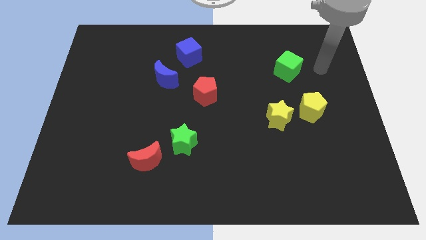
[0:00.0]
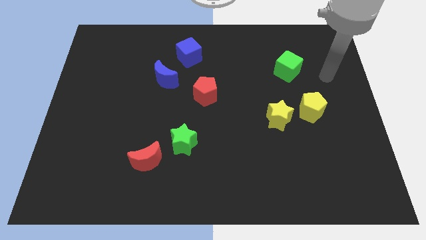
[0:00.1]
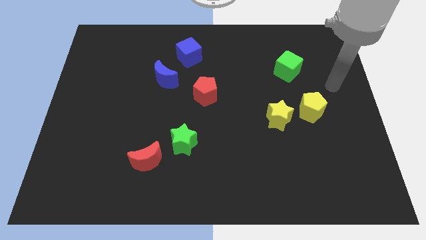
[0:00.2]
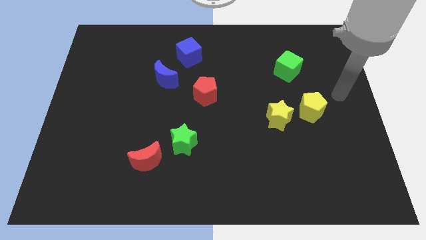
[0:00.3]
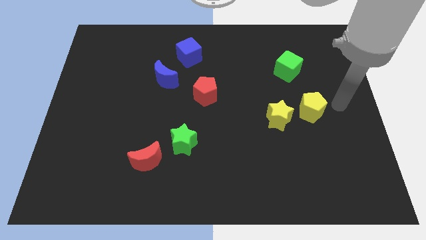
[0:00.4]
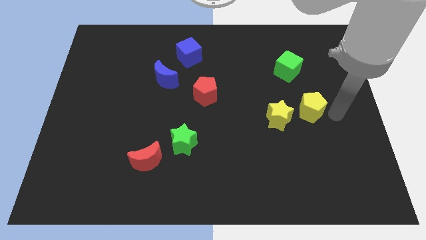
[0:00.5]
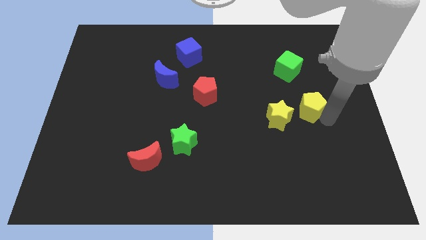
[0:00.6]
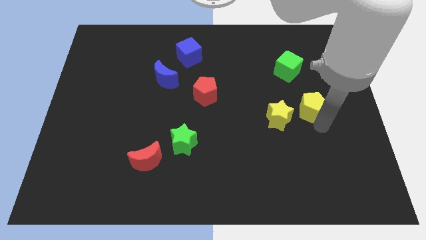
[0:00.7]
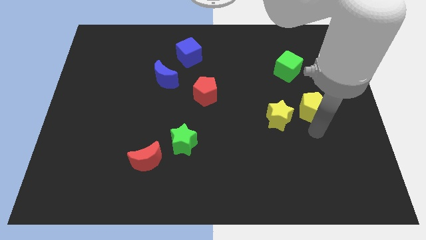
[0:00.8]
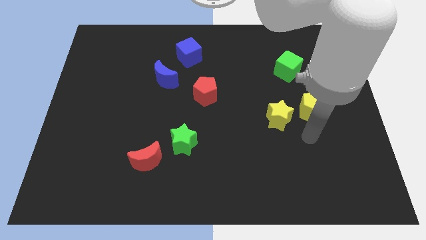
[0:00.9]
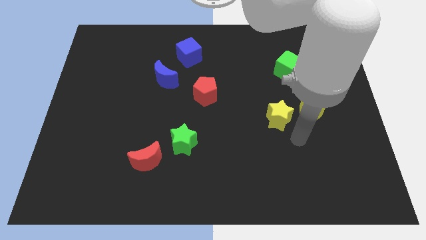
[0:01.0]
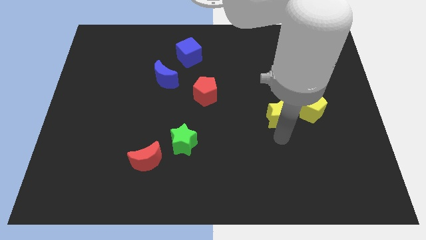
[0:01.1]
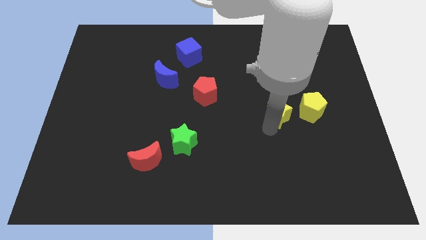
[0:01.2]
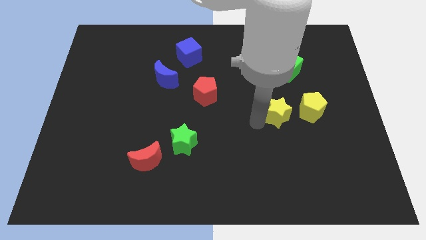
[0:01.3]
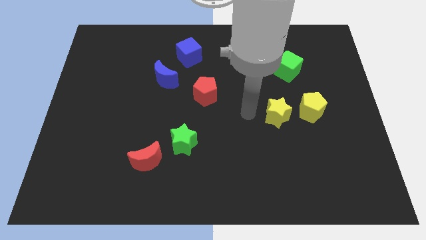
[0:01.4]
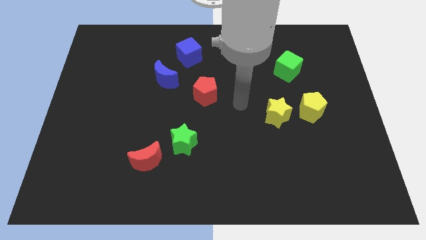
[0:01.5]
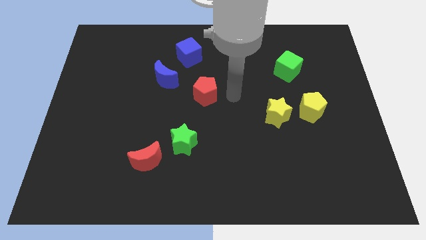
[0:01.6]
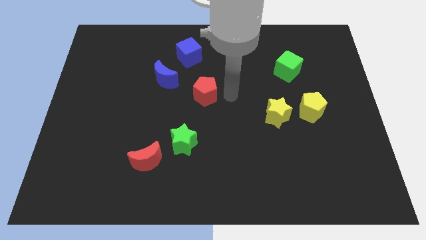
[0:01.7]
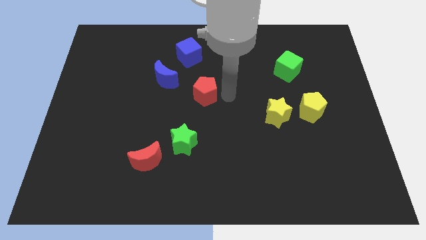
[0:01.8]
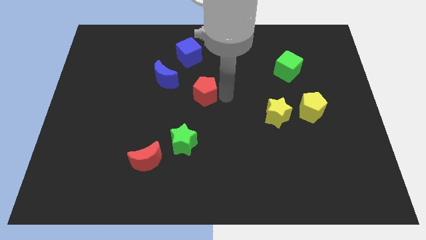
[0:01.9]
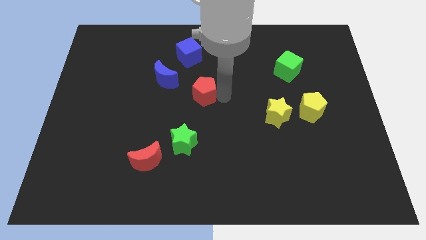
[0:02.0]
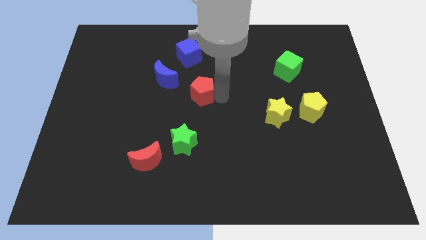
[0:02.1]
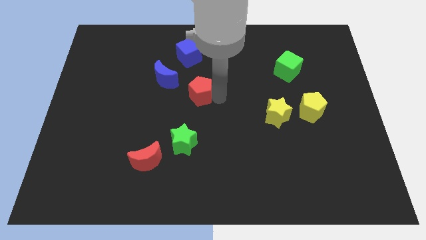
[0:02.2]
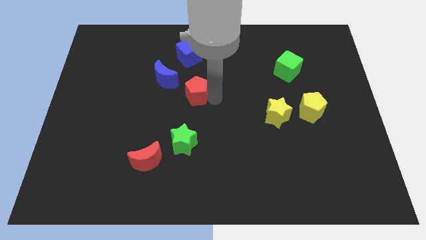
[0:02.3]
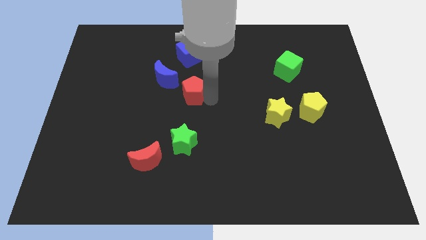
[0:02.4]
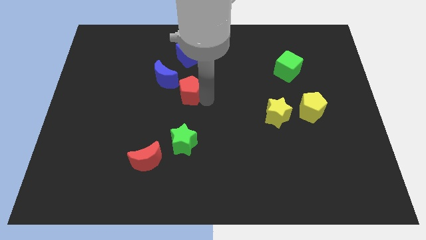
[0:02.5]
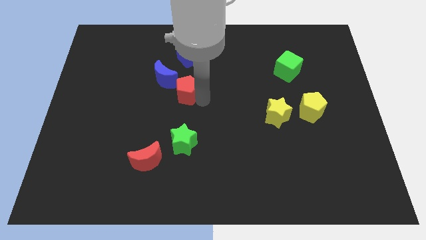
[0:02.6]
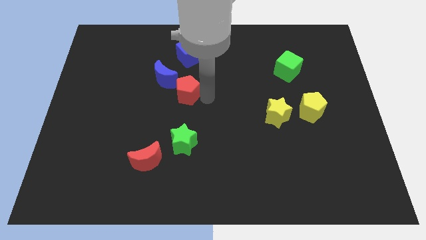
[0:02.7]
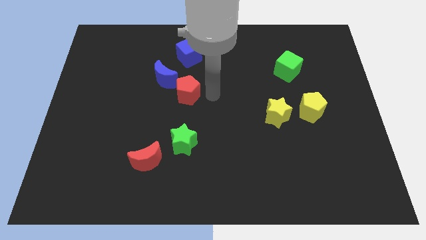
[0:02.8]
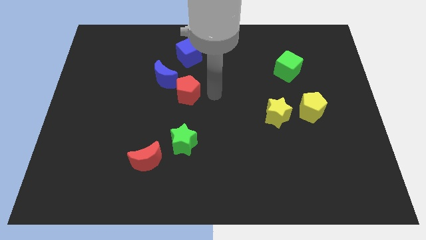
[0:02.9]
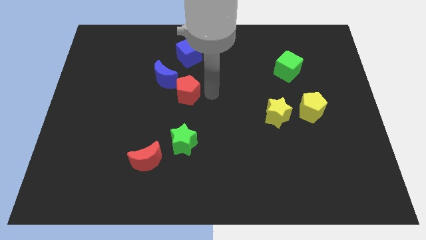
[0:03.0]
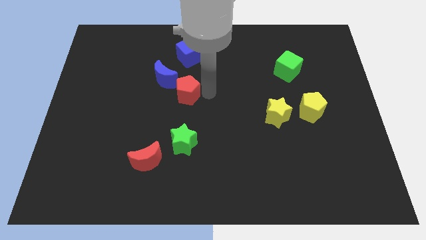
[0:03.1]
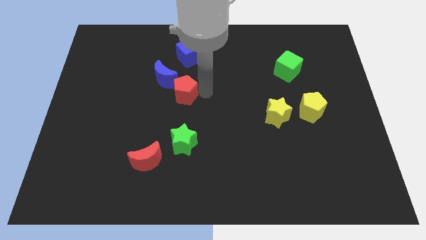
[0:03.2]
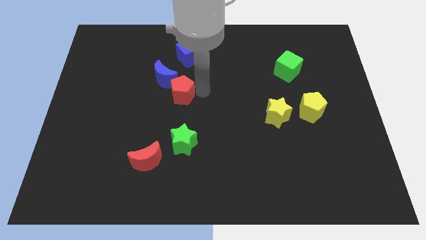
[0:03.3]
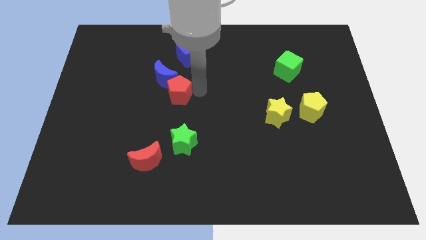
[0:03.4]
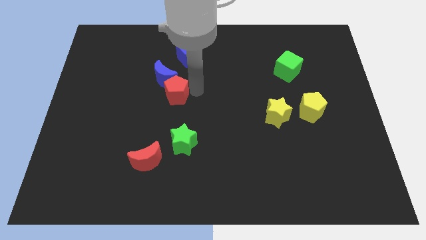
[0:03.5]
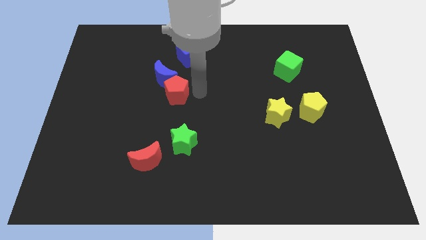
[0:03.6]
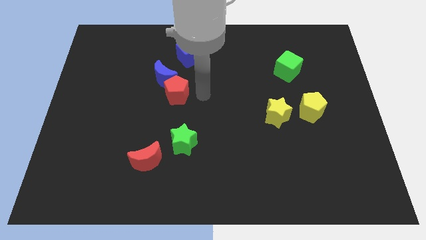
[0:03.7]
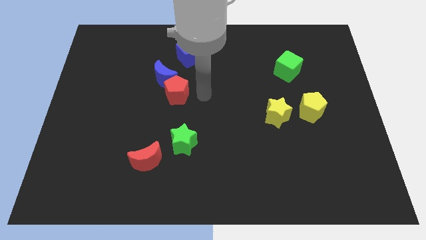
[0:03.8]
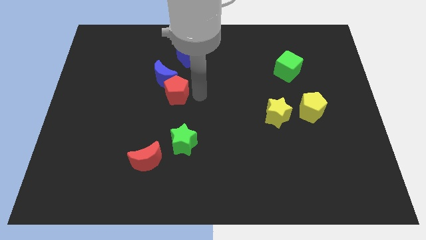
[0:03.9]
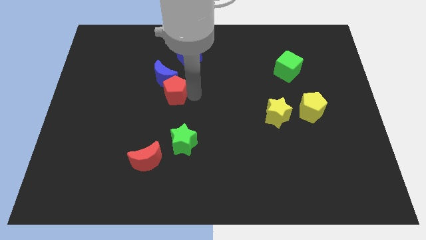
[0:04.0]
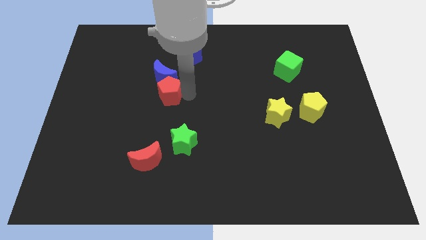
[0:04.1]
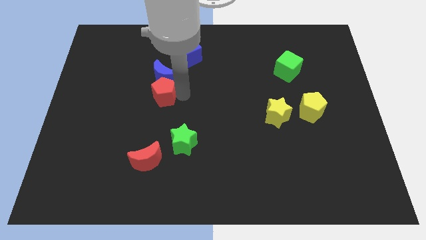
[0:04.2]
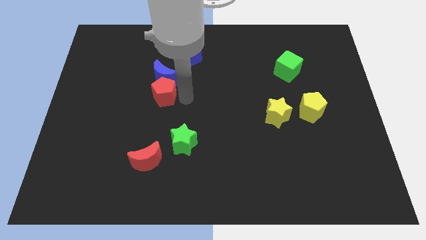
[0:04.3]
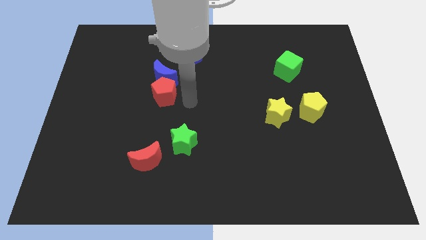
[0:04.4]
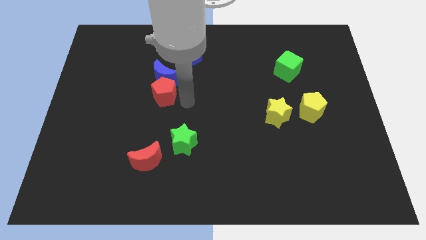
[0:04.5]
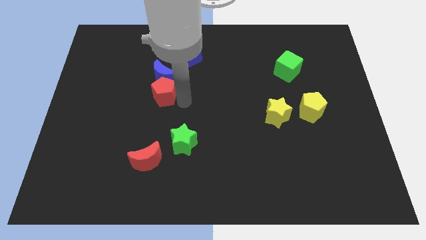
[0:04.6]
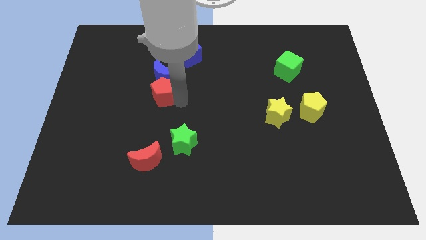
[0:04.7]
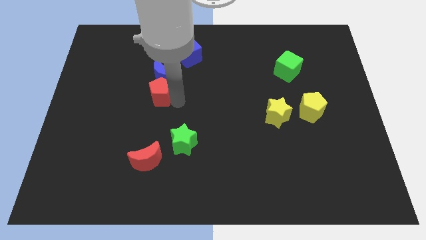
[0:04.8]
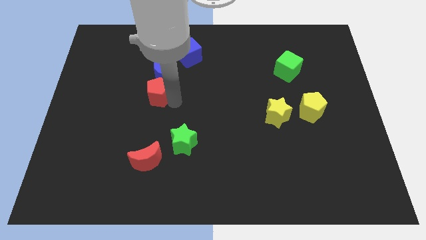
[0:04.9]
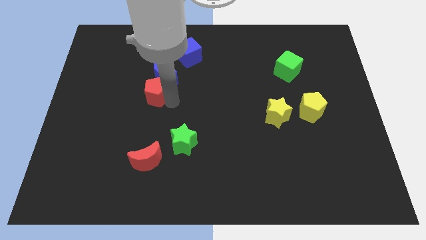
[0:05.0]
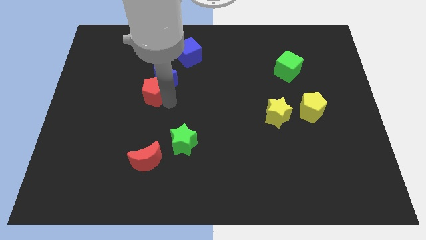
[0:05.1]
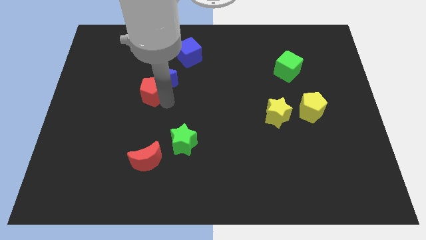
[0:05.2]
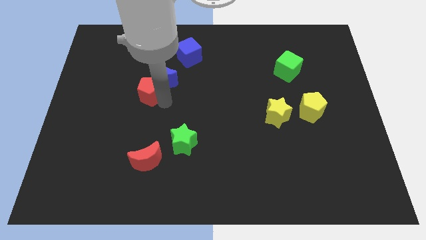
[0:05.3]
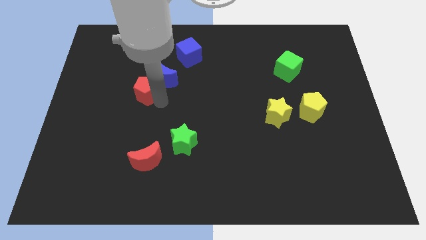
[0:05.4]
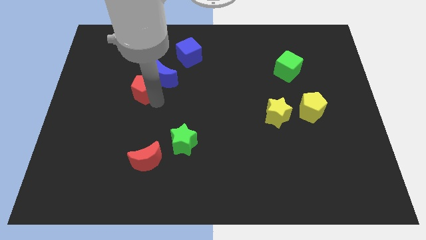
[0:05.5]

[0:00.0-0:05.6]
put the red pentagon to the left side of the blue moon

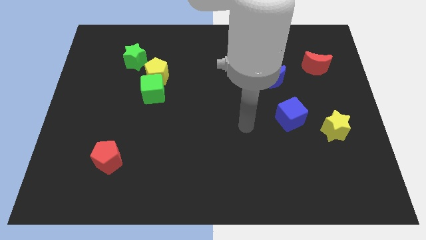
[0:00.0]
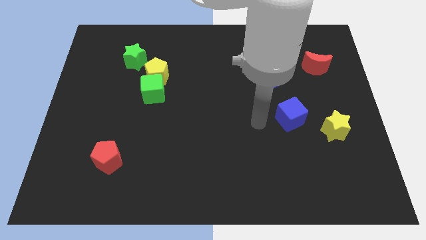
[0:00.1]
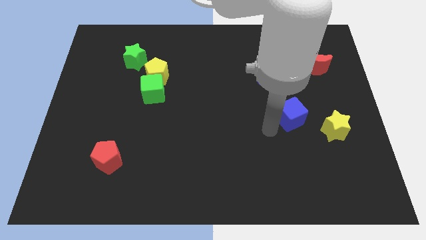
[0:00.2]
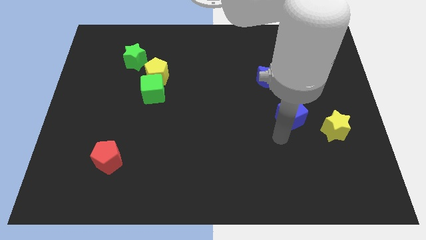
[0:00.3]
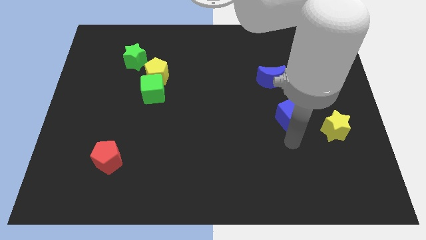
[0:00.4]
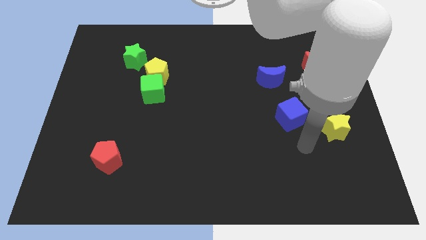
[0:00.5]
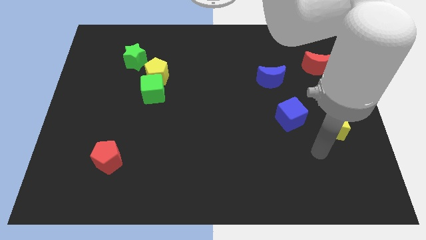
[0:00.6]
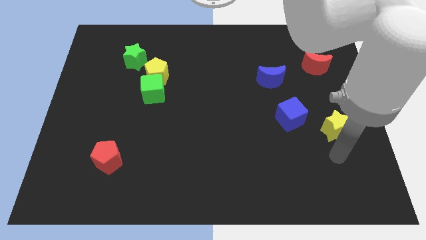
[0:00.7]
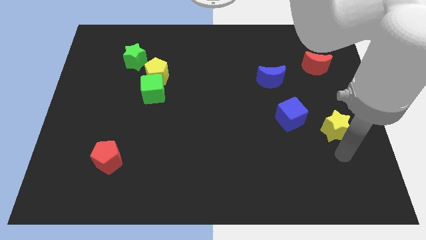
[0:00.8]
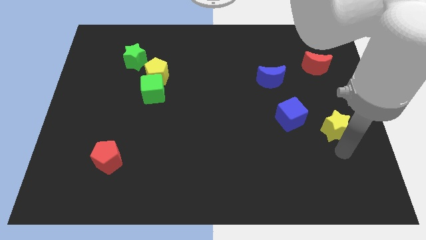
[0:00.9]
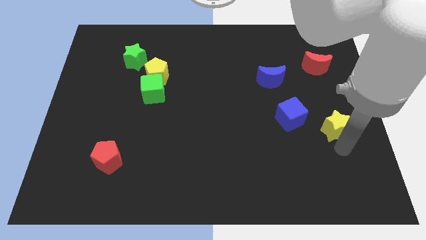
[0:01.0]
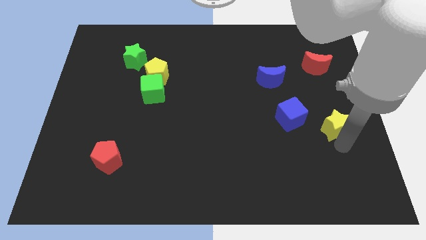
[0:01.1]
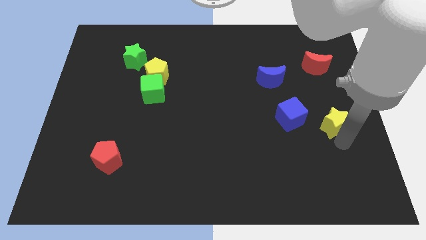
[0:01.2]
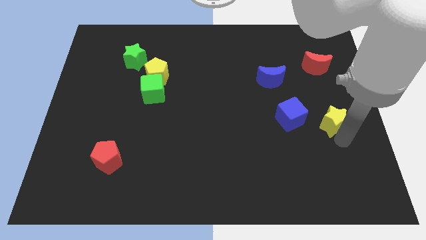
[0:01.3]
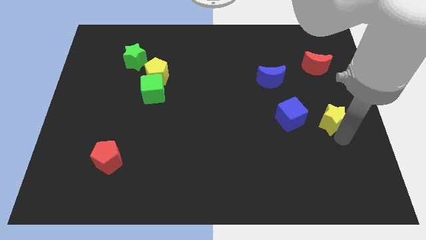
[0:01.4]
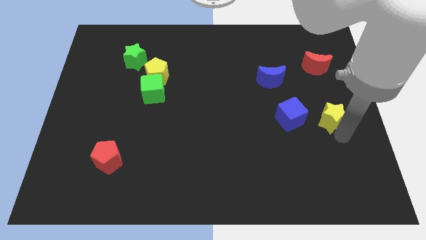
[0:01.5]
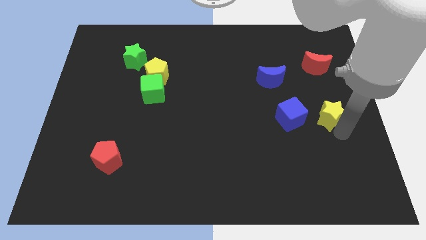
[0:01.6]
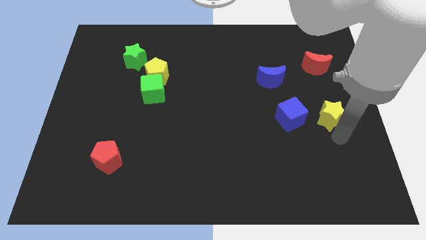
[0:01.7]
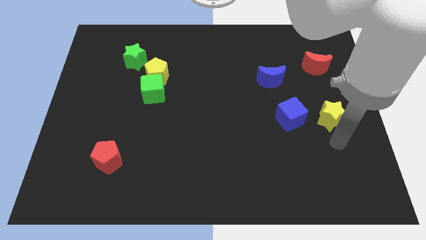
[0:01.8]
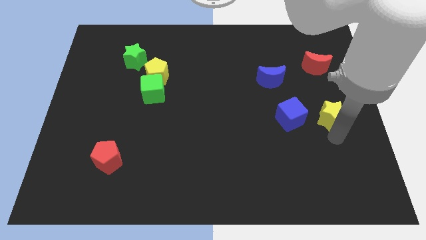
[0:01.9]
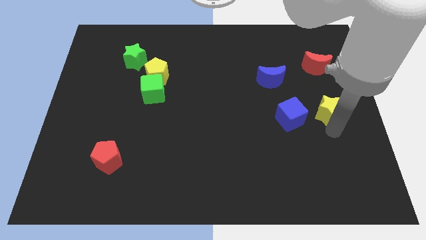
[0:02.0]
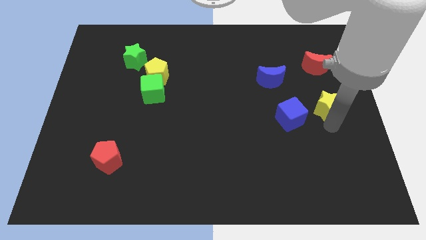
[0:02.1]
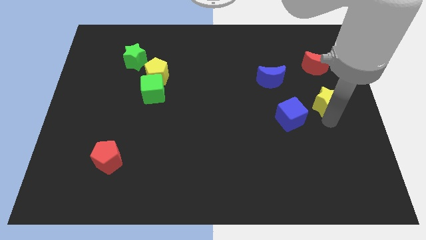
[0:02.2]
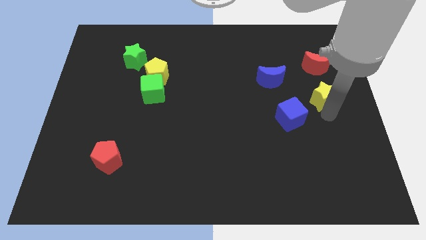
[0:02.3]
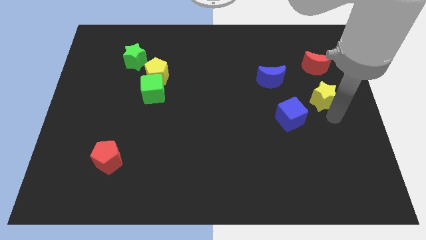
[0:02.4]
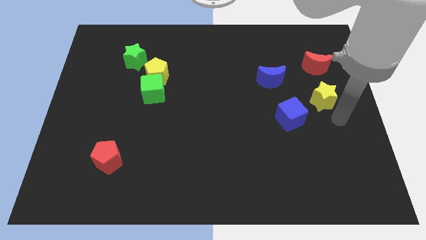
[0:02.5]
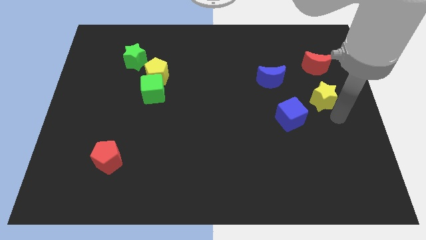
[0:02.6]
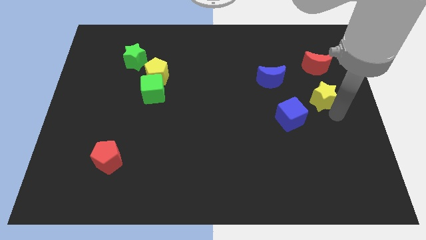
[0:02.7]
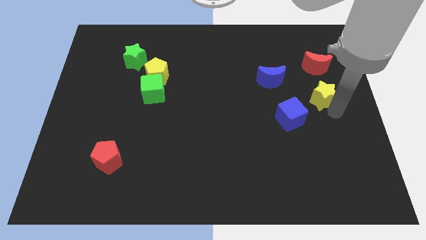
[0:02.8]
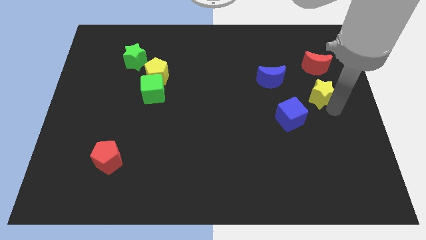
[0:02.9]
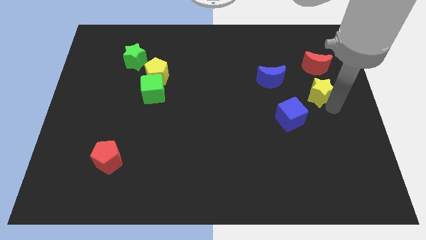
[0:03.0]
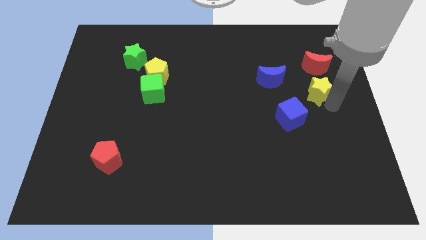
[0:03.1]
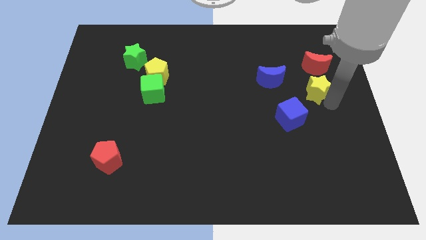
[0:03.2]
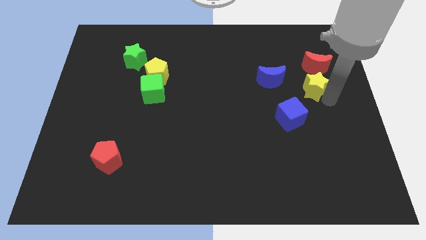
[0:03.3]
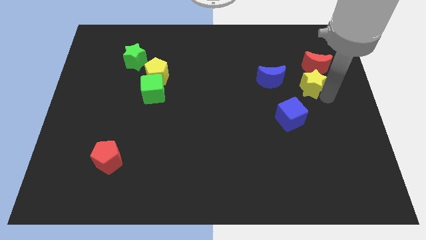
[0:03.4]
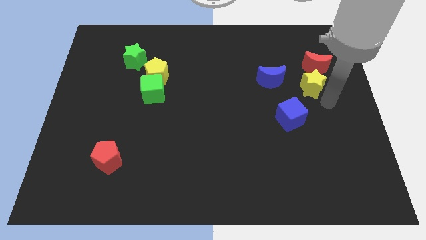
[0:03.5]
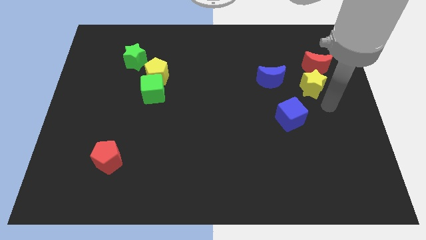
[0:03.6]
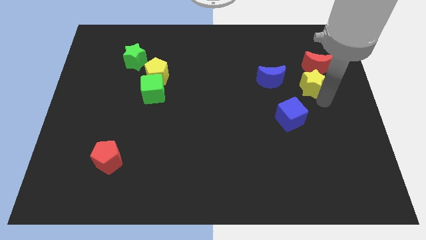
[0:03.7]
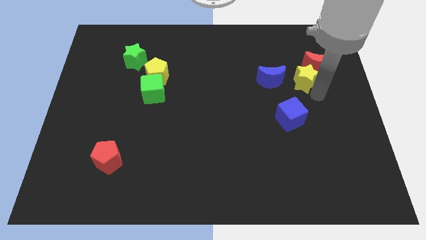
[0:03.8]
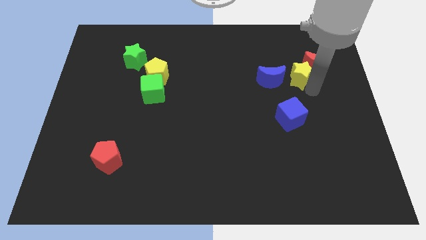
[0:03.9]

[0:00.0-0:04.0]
slide the yellow star diagonally up and to the right of the blue moon
